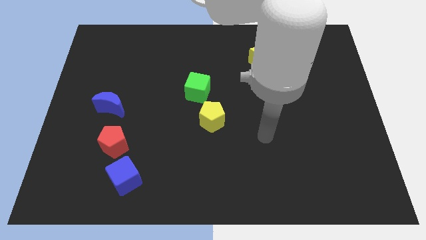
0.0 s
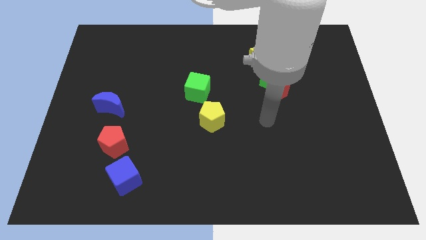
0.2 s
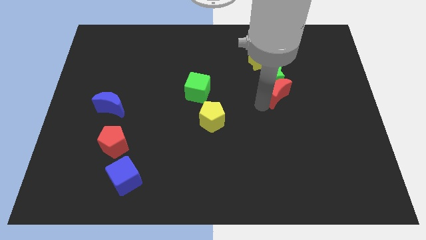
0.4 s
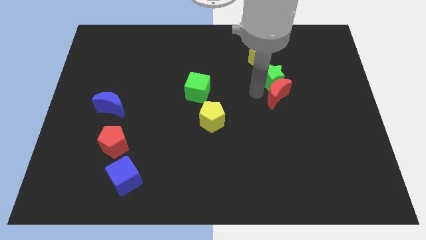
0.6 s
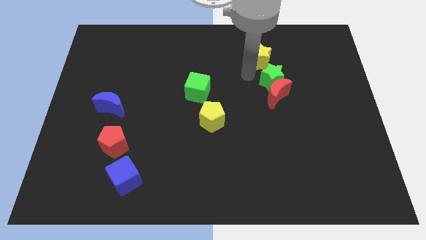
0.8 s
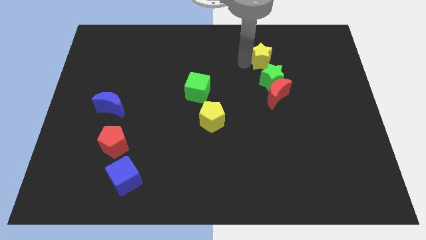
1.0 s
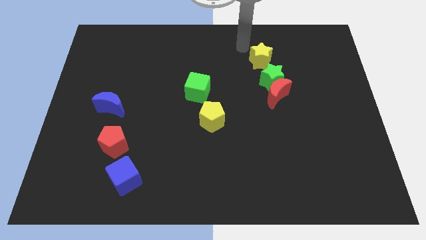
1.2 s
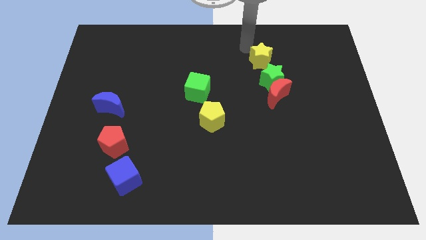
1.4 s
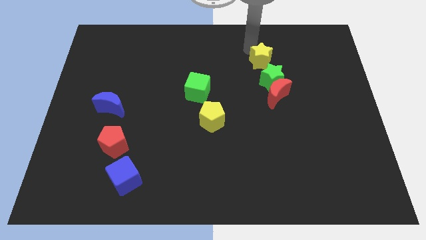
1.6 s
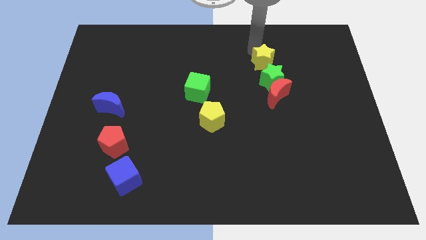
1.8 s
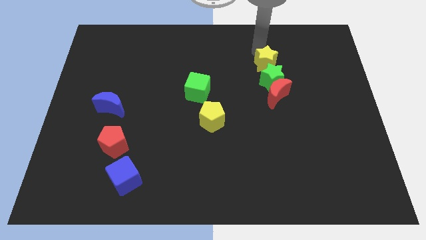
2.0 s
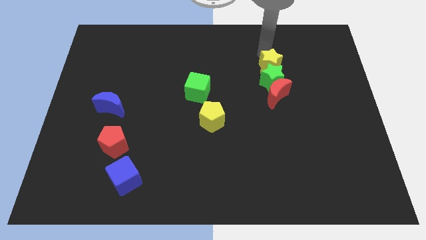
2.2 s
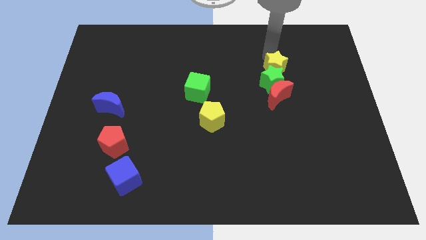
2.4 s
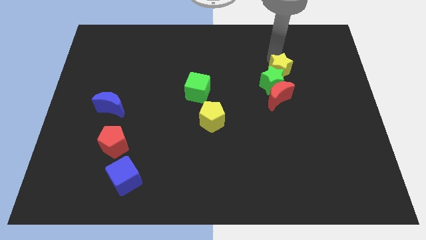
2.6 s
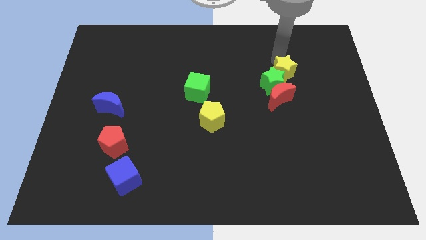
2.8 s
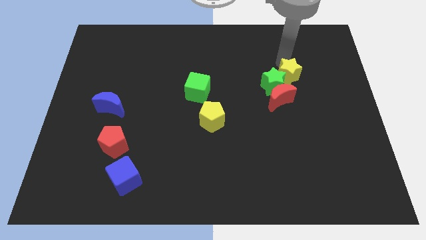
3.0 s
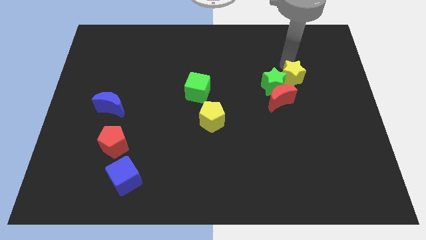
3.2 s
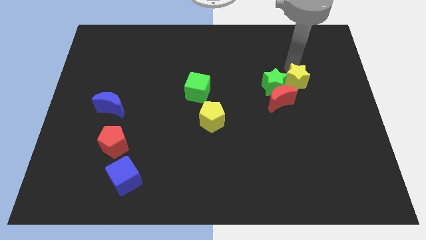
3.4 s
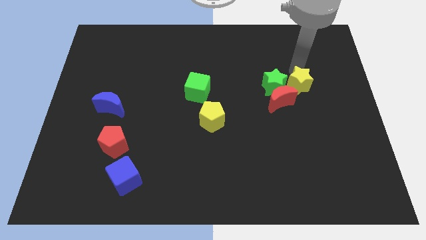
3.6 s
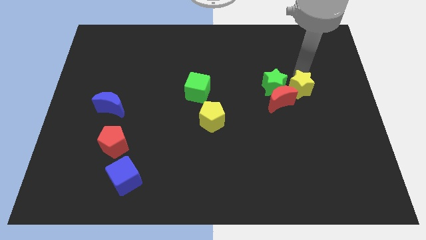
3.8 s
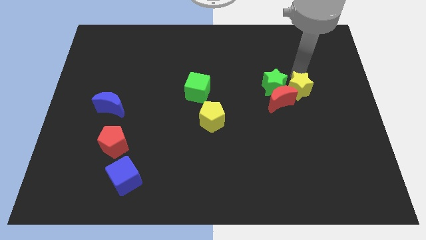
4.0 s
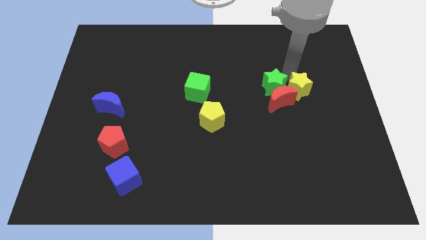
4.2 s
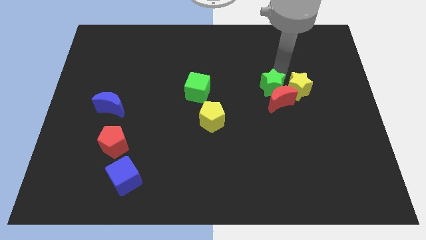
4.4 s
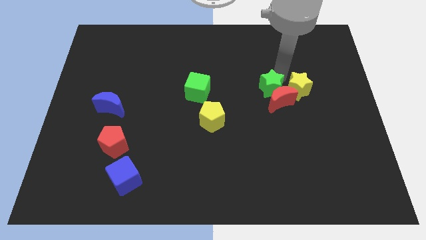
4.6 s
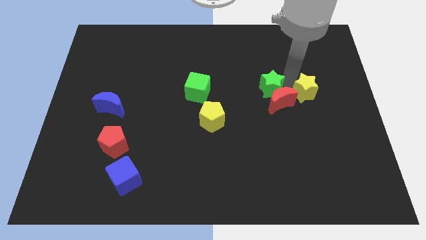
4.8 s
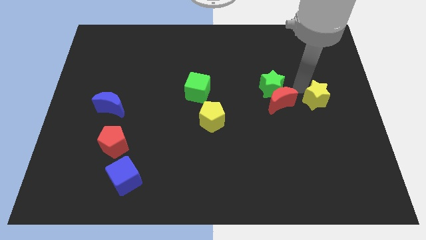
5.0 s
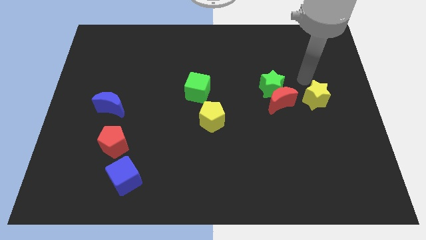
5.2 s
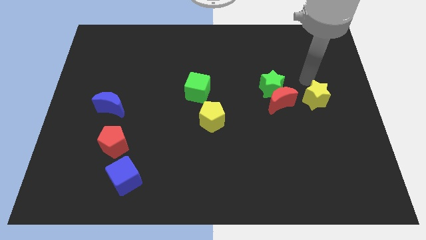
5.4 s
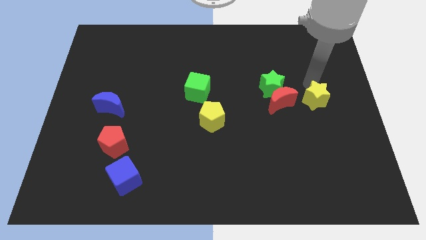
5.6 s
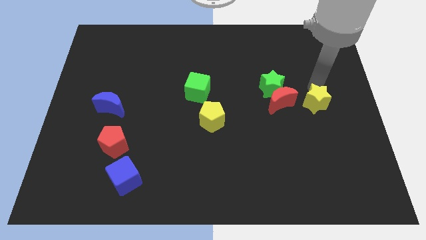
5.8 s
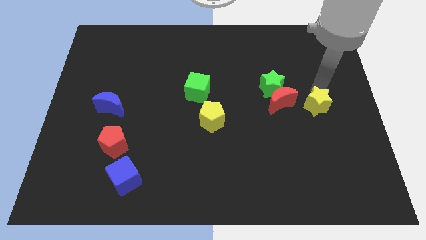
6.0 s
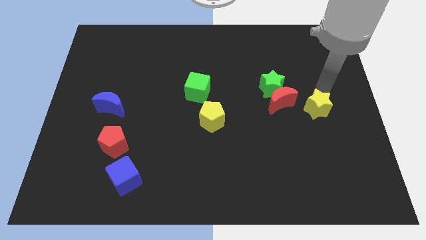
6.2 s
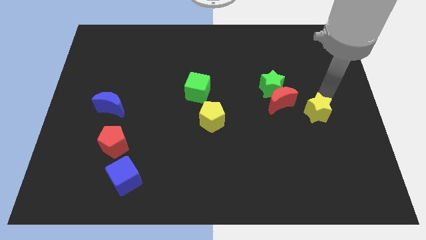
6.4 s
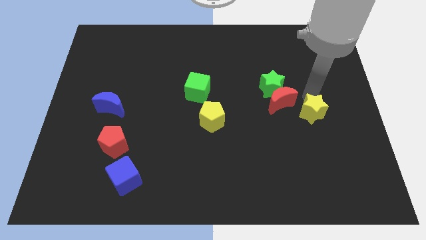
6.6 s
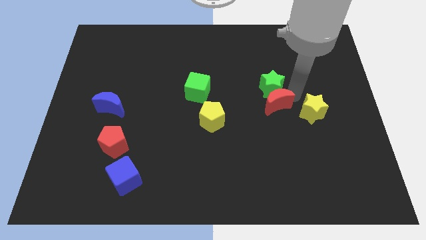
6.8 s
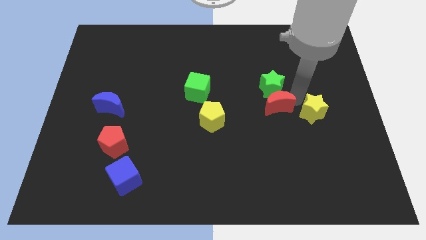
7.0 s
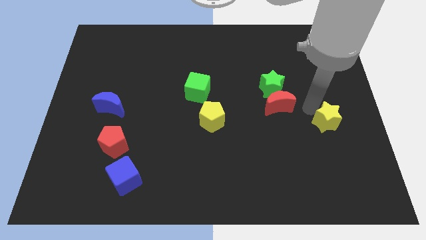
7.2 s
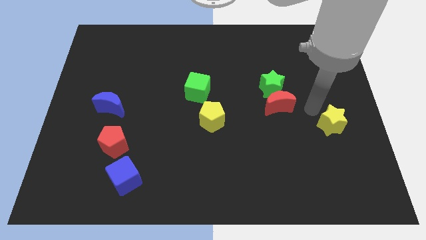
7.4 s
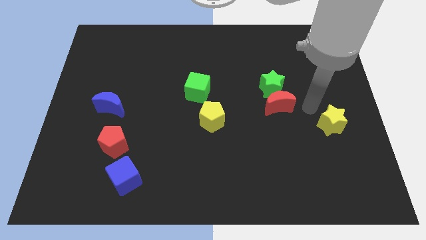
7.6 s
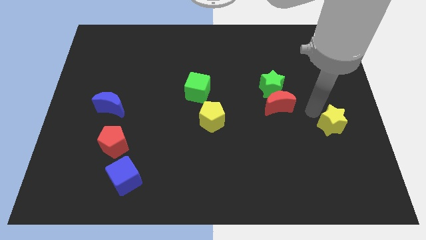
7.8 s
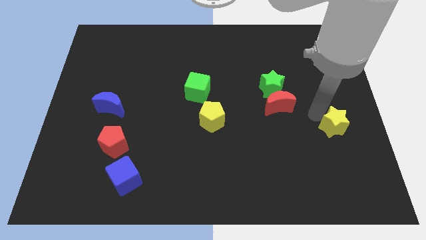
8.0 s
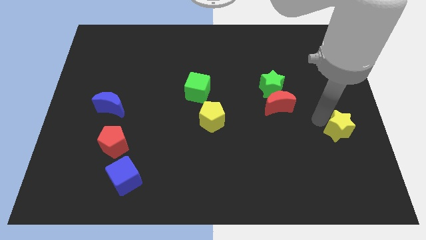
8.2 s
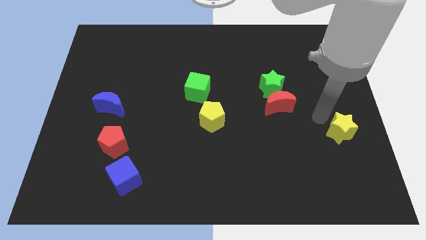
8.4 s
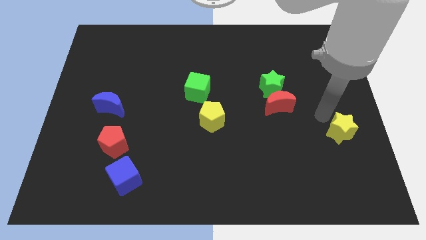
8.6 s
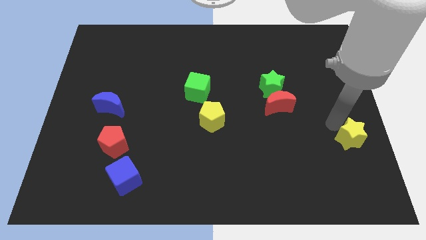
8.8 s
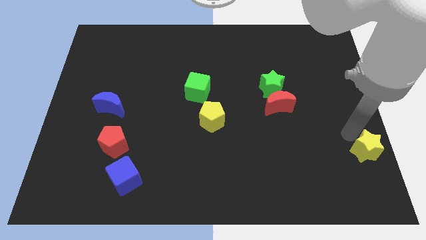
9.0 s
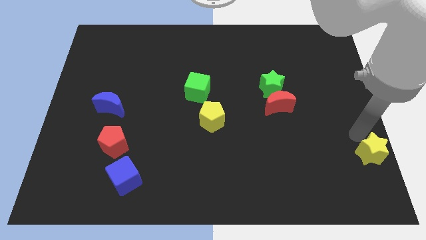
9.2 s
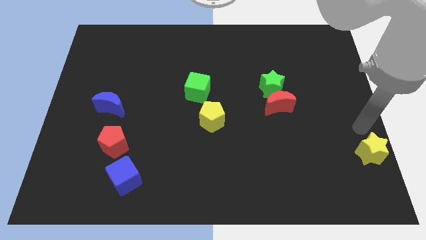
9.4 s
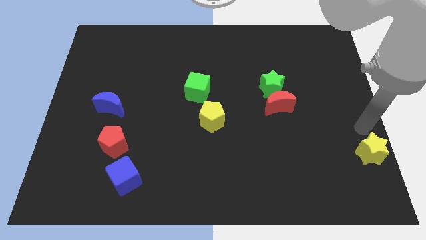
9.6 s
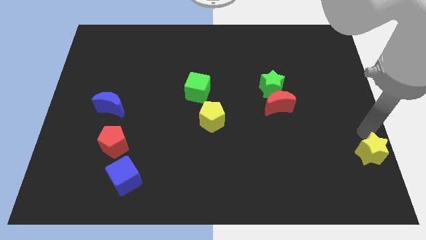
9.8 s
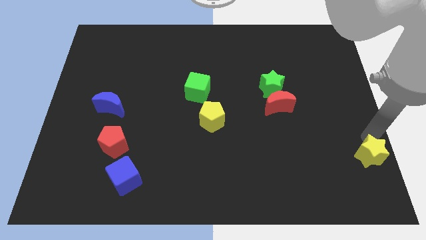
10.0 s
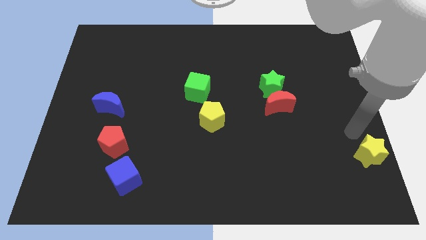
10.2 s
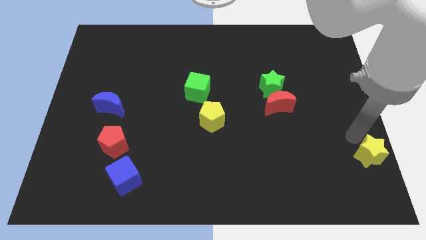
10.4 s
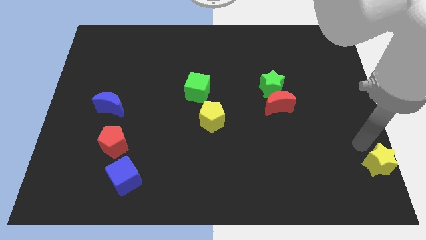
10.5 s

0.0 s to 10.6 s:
move the yellow star to the bottom right of the board

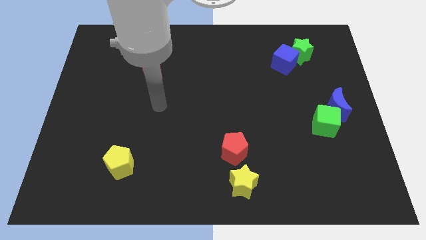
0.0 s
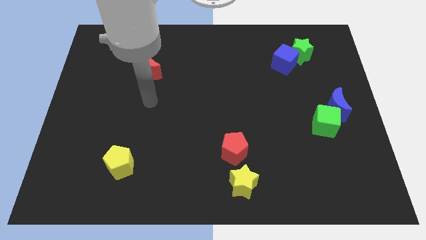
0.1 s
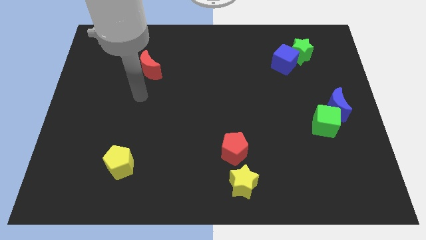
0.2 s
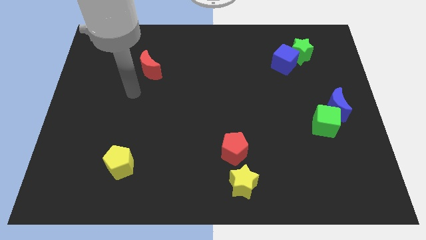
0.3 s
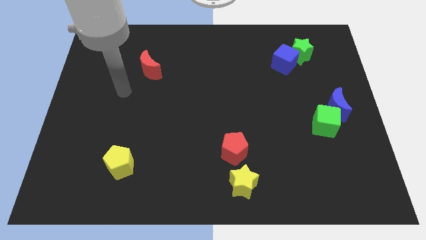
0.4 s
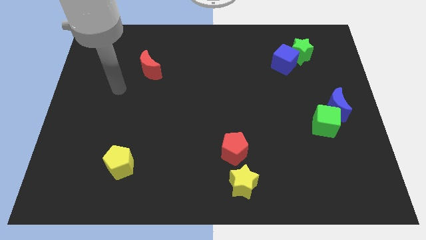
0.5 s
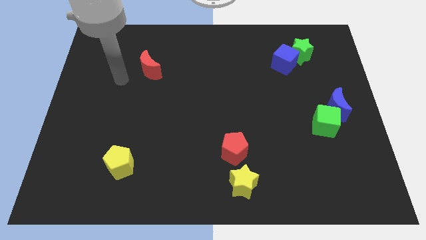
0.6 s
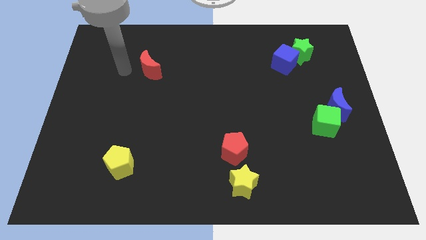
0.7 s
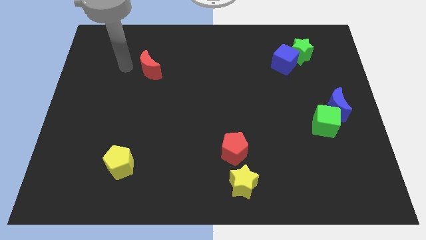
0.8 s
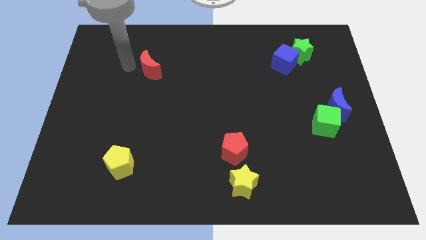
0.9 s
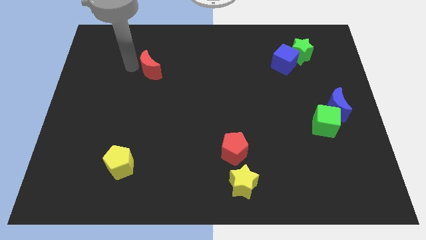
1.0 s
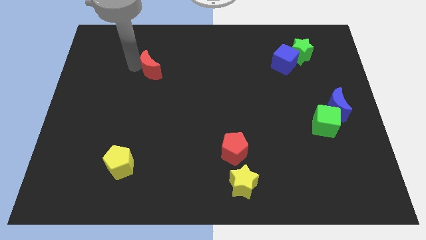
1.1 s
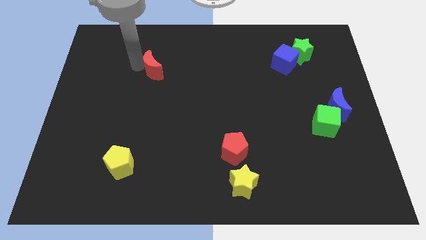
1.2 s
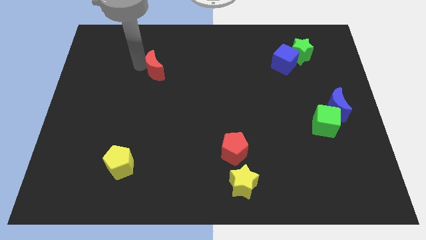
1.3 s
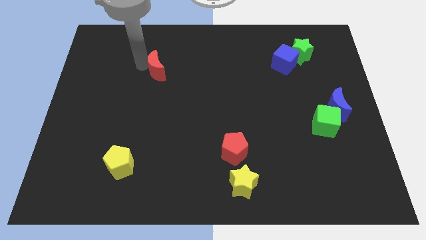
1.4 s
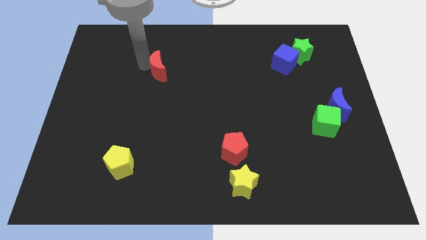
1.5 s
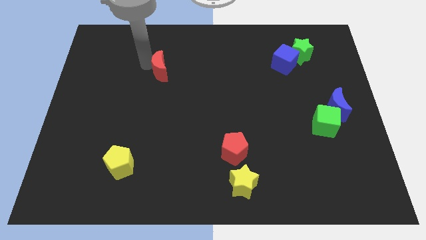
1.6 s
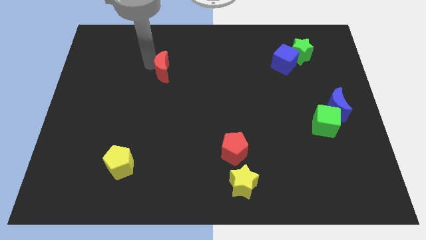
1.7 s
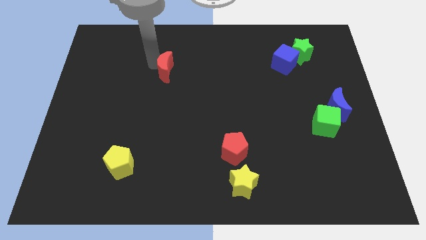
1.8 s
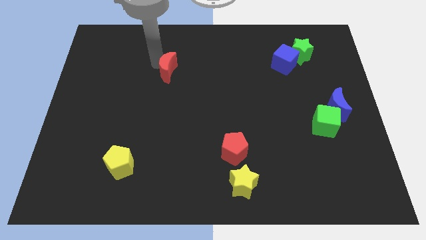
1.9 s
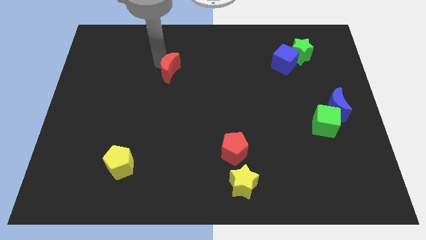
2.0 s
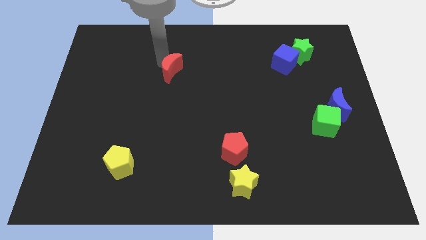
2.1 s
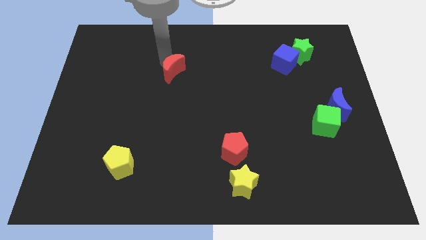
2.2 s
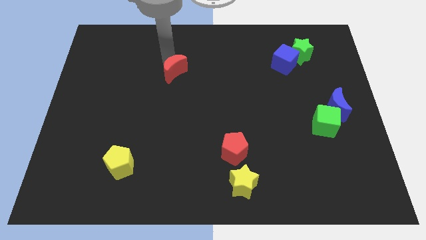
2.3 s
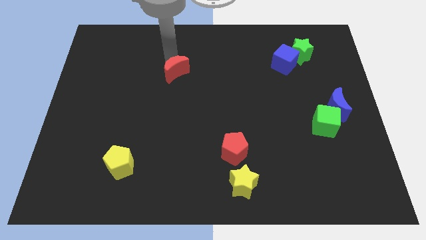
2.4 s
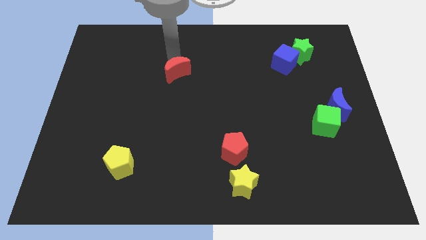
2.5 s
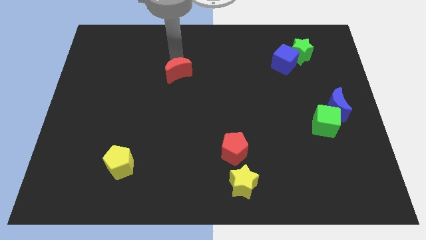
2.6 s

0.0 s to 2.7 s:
move the red moon to the center of the board
